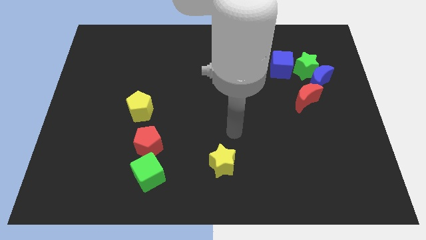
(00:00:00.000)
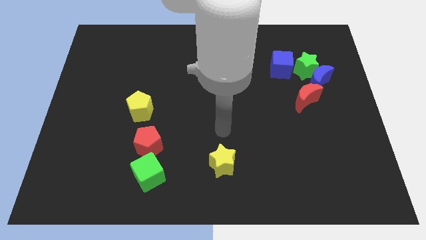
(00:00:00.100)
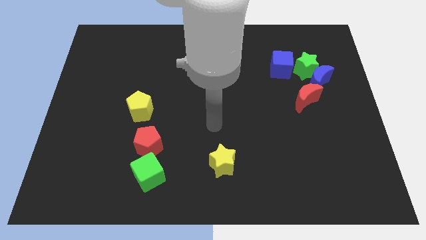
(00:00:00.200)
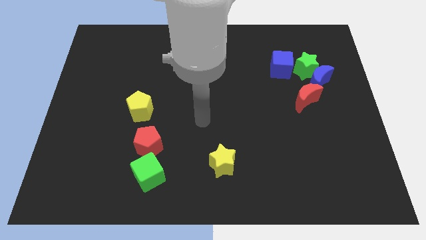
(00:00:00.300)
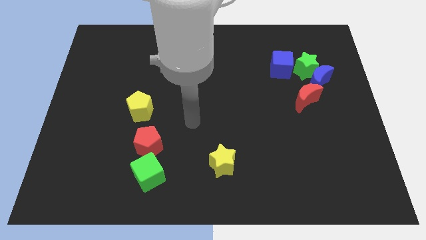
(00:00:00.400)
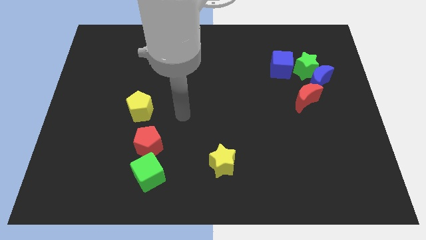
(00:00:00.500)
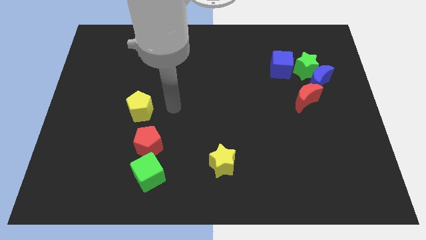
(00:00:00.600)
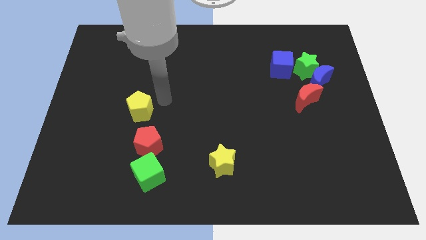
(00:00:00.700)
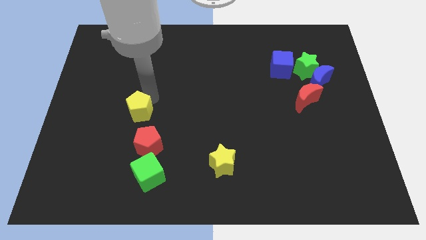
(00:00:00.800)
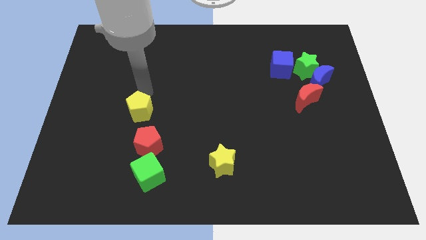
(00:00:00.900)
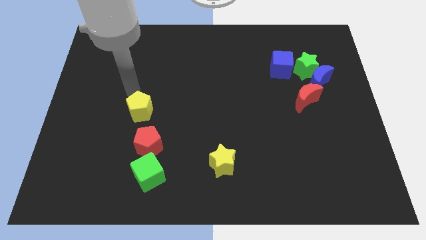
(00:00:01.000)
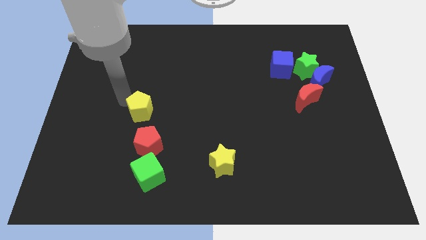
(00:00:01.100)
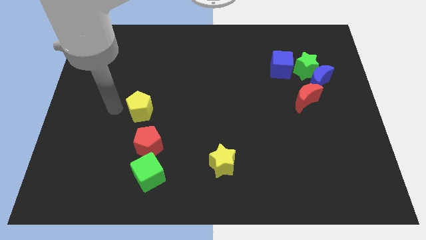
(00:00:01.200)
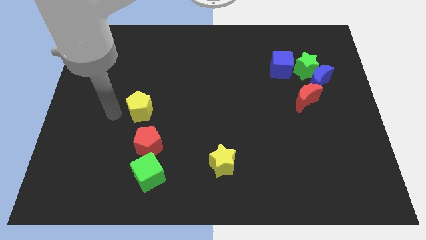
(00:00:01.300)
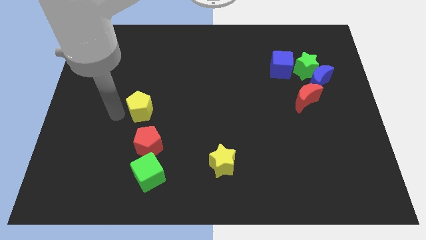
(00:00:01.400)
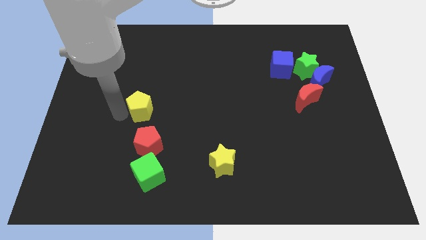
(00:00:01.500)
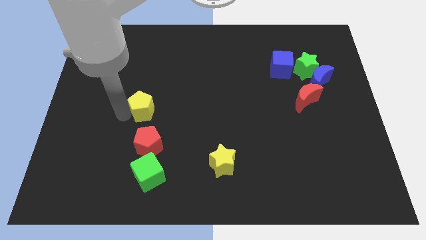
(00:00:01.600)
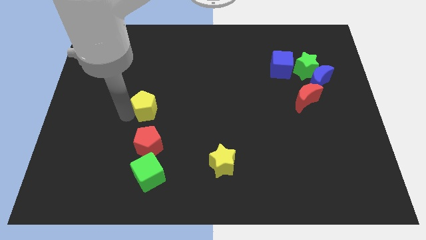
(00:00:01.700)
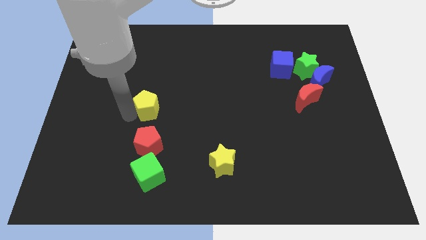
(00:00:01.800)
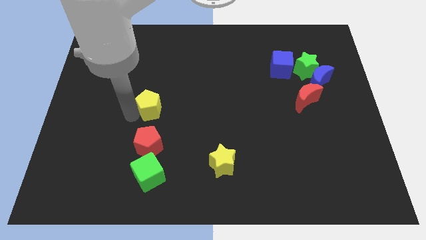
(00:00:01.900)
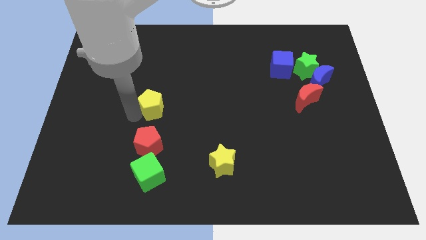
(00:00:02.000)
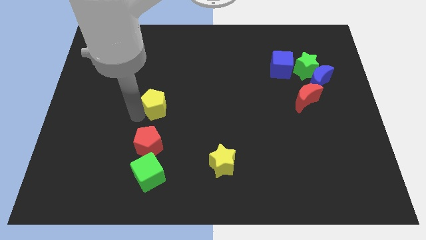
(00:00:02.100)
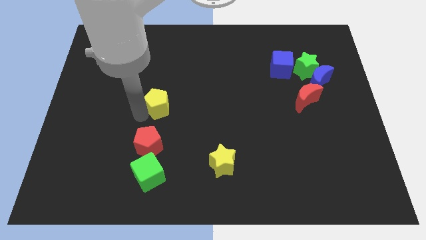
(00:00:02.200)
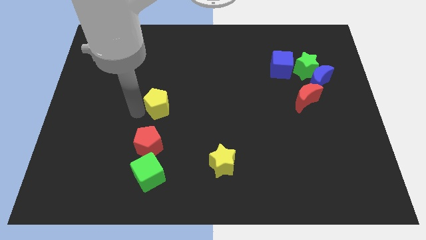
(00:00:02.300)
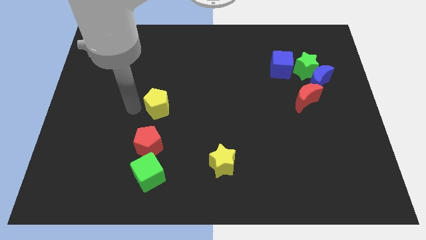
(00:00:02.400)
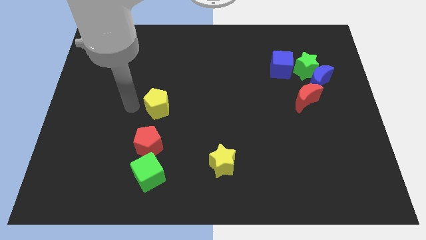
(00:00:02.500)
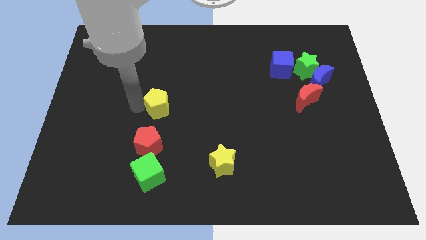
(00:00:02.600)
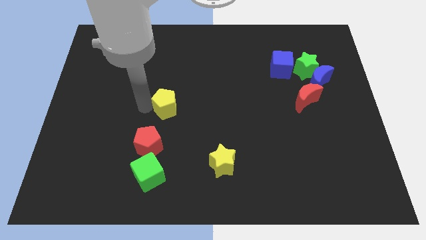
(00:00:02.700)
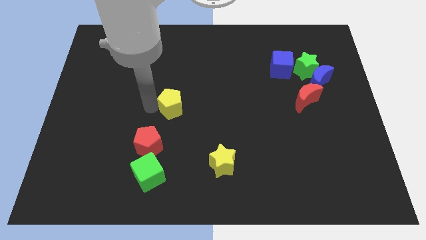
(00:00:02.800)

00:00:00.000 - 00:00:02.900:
slightly push the yellow pentagon right

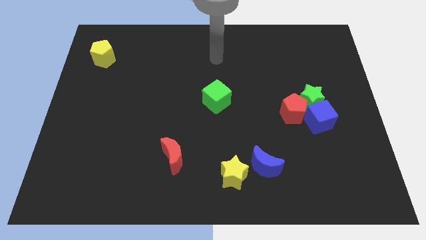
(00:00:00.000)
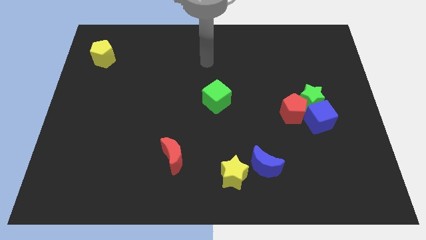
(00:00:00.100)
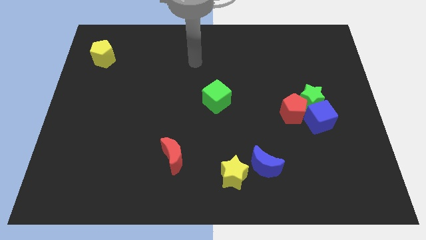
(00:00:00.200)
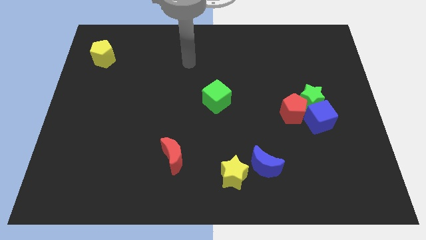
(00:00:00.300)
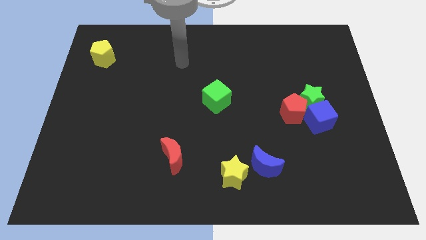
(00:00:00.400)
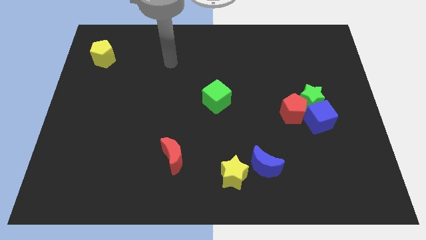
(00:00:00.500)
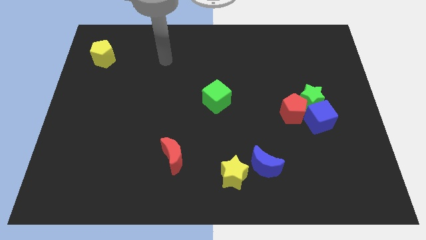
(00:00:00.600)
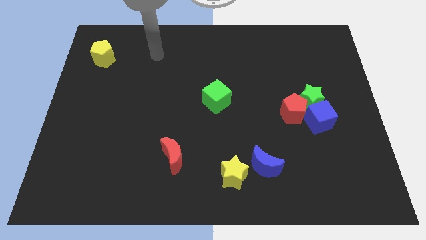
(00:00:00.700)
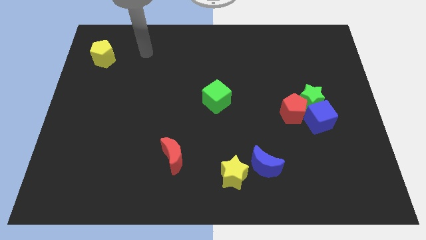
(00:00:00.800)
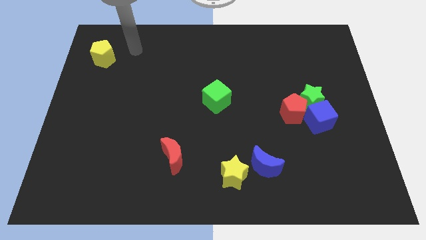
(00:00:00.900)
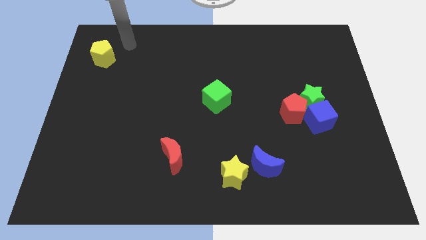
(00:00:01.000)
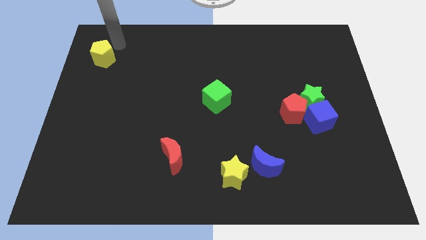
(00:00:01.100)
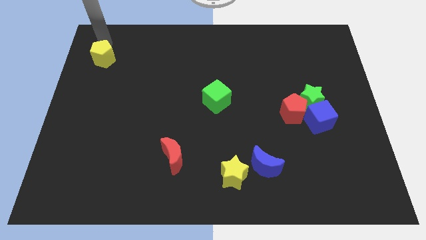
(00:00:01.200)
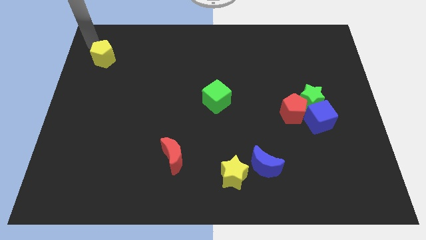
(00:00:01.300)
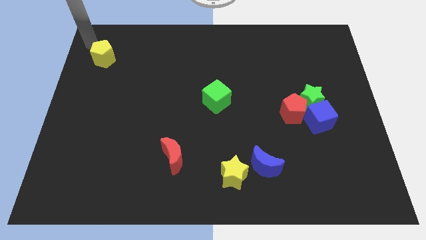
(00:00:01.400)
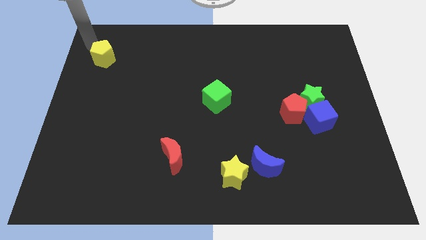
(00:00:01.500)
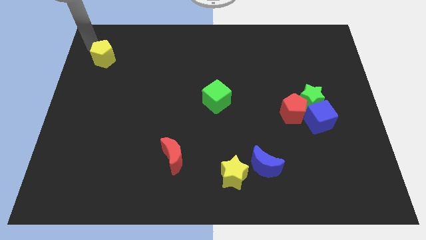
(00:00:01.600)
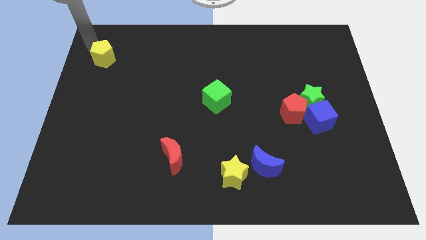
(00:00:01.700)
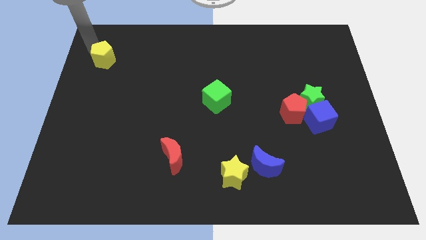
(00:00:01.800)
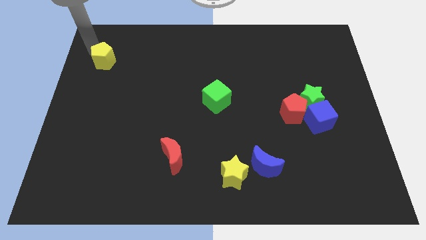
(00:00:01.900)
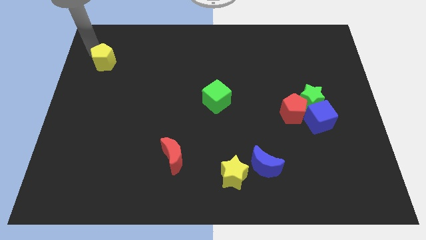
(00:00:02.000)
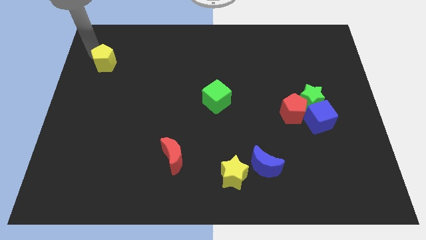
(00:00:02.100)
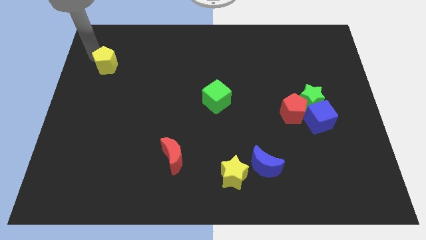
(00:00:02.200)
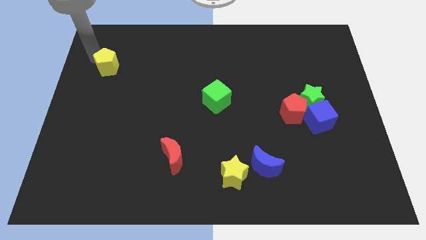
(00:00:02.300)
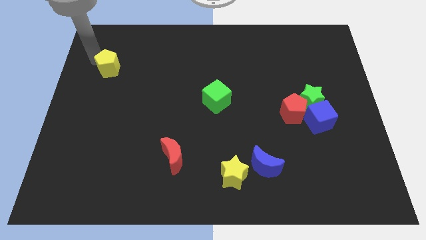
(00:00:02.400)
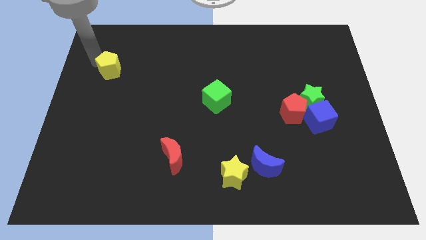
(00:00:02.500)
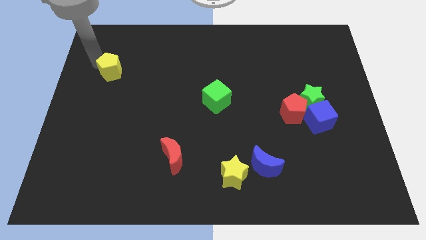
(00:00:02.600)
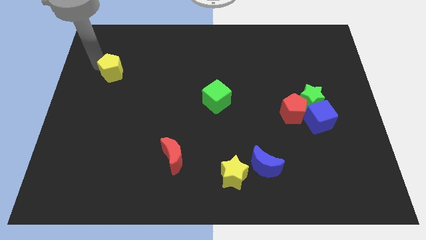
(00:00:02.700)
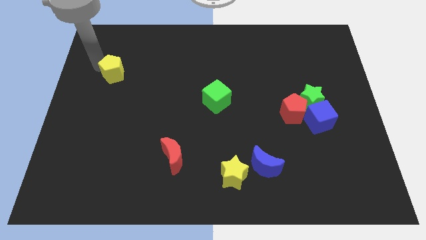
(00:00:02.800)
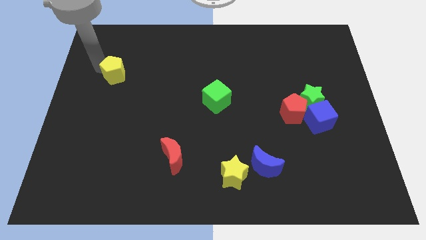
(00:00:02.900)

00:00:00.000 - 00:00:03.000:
slightly move the yellow pentagon downwards and to the right diagonally

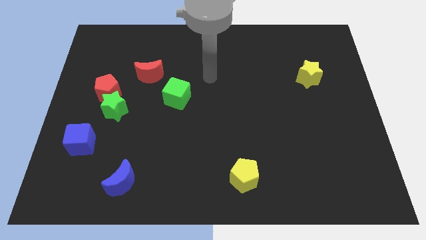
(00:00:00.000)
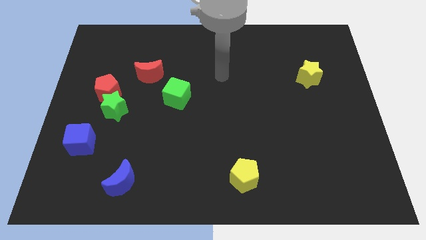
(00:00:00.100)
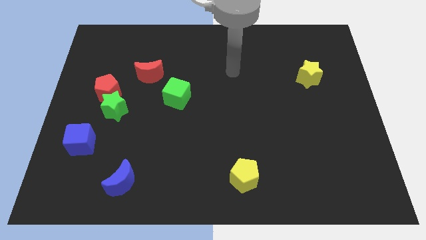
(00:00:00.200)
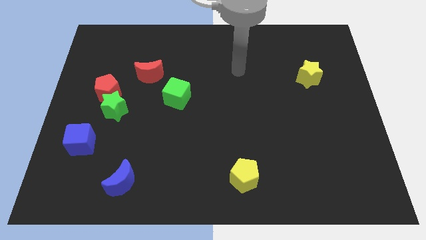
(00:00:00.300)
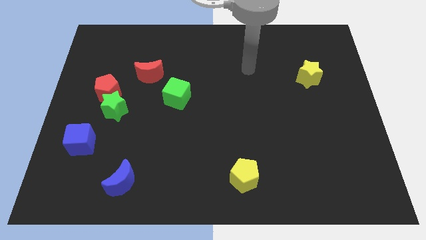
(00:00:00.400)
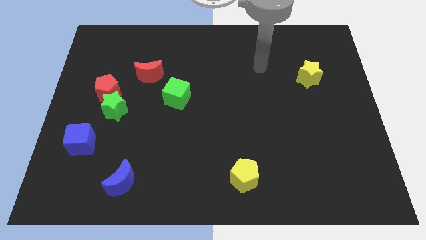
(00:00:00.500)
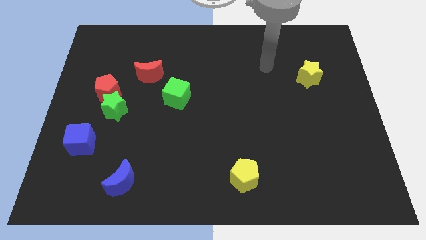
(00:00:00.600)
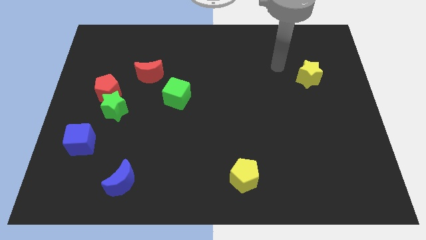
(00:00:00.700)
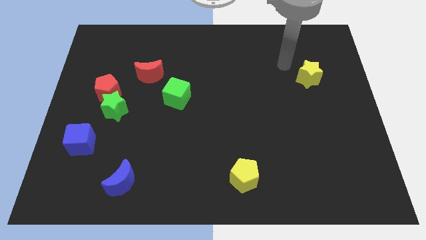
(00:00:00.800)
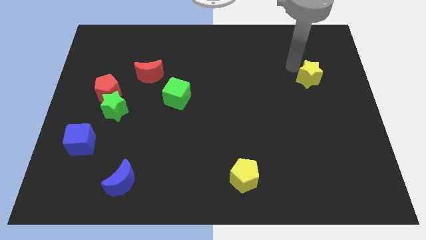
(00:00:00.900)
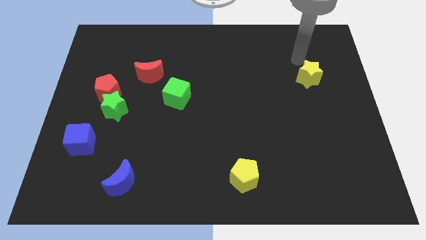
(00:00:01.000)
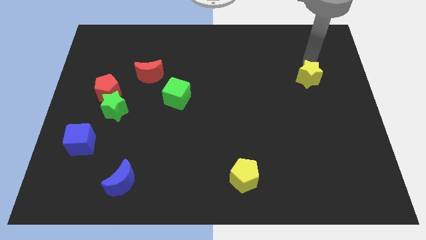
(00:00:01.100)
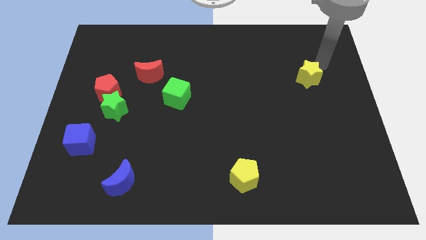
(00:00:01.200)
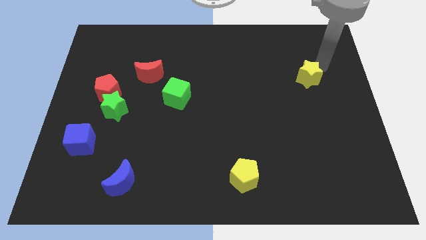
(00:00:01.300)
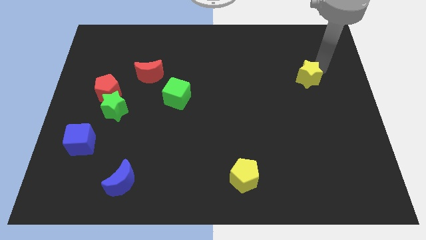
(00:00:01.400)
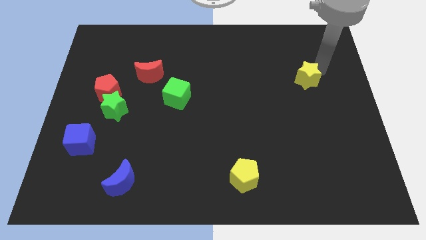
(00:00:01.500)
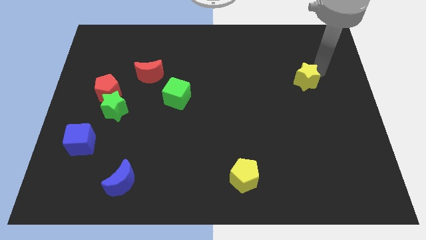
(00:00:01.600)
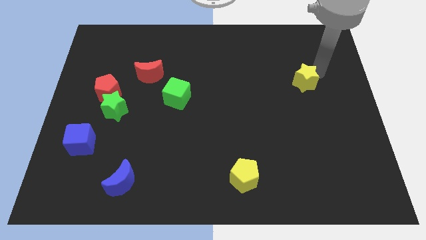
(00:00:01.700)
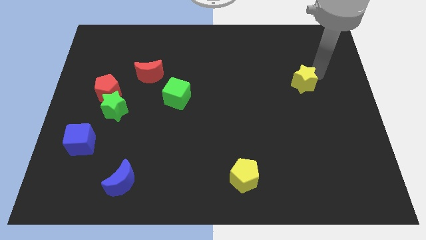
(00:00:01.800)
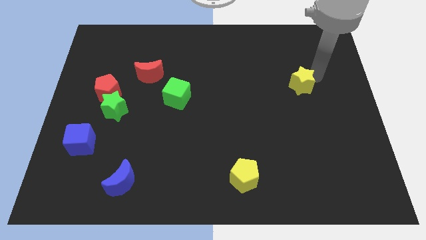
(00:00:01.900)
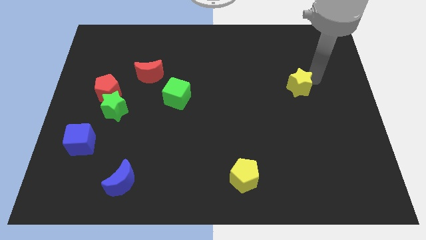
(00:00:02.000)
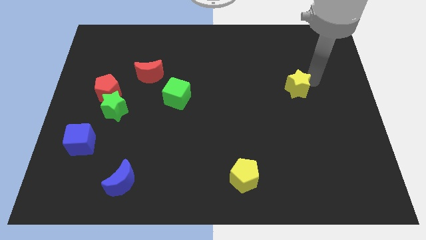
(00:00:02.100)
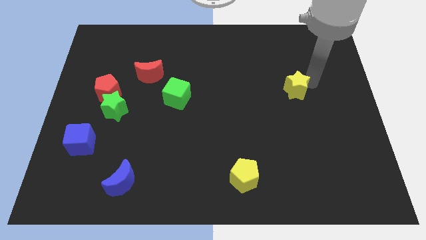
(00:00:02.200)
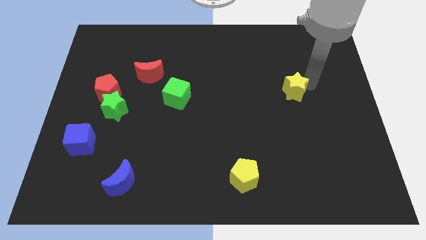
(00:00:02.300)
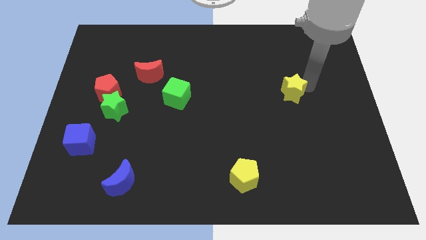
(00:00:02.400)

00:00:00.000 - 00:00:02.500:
move the yellow star a little bit diagonally downwards and left
